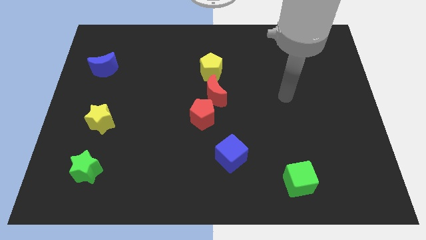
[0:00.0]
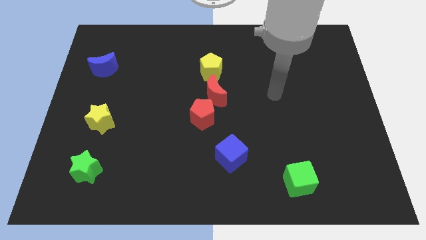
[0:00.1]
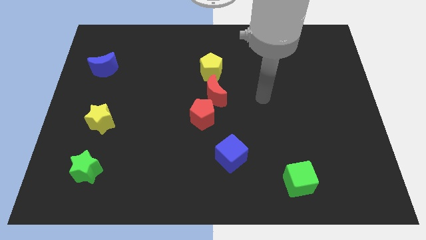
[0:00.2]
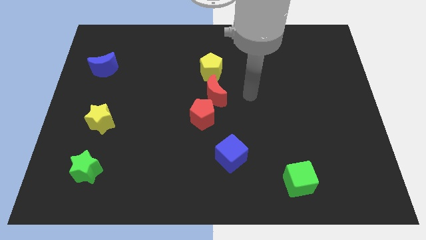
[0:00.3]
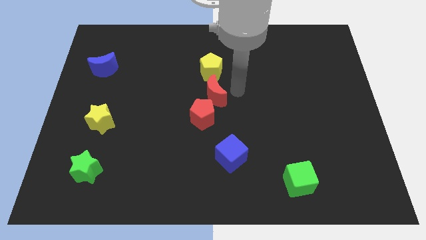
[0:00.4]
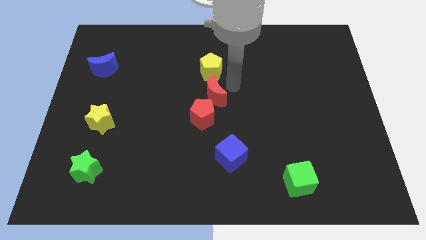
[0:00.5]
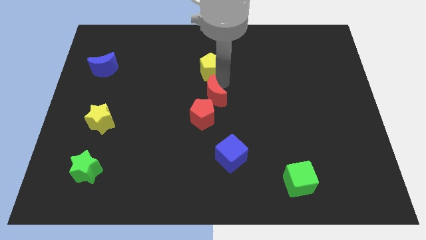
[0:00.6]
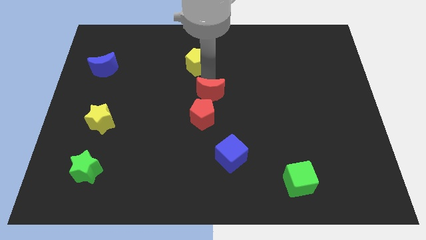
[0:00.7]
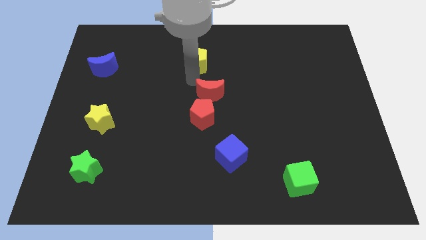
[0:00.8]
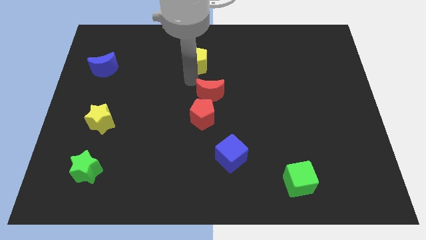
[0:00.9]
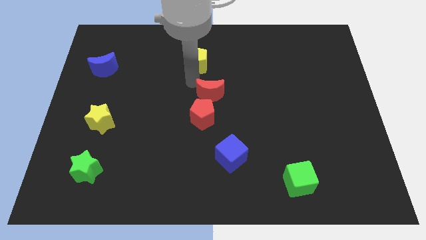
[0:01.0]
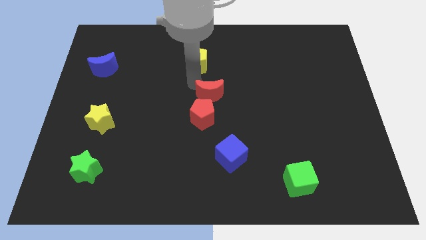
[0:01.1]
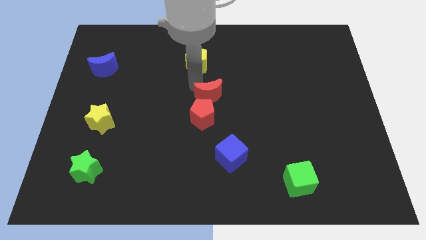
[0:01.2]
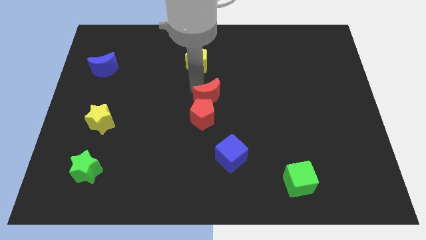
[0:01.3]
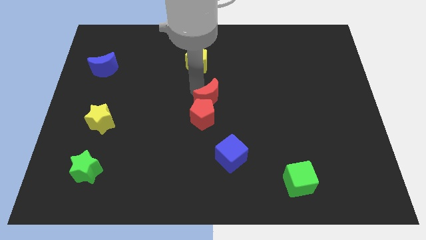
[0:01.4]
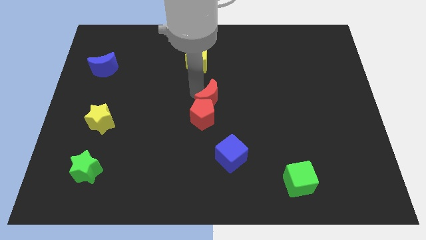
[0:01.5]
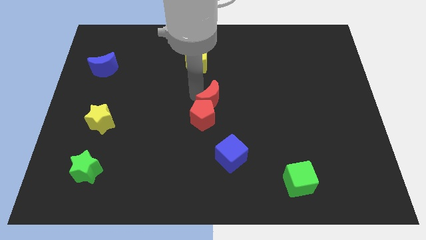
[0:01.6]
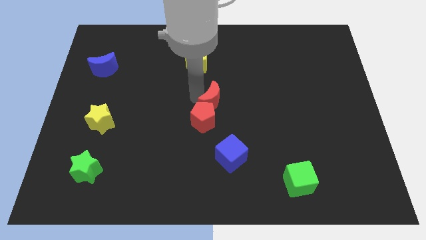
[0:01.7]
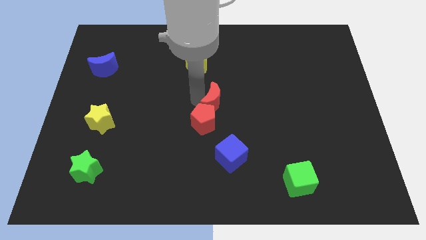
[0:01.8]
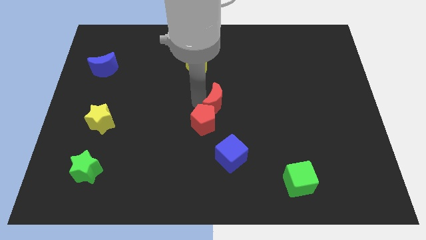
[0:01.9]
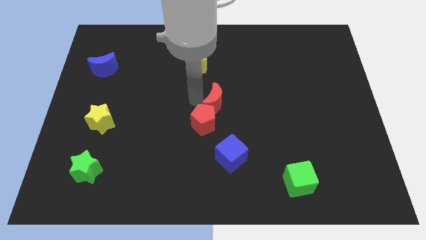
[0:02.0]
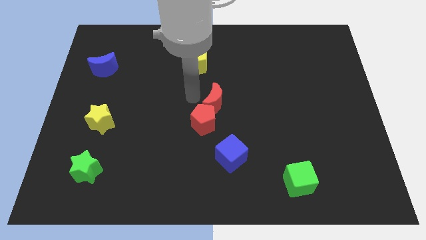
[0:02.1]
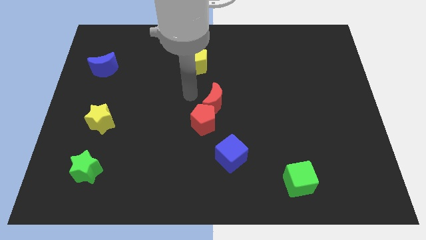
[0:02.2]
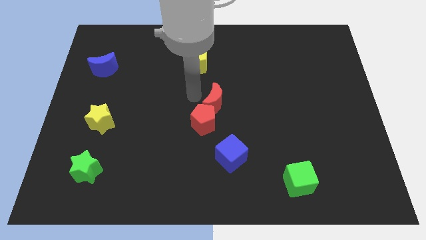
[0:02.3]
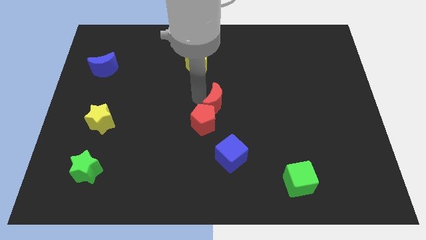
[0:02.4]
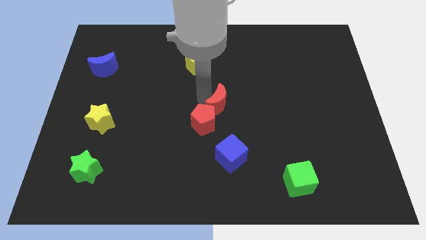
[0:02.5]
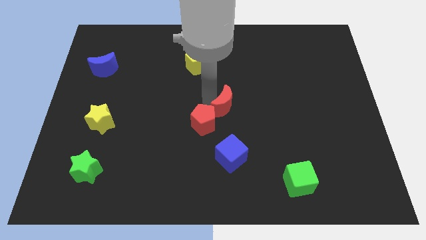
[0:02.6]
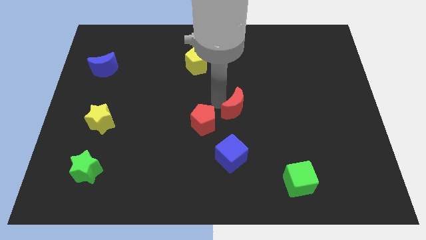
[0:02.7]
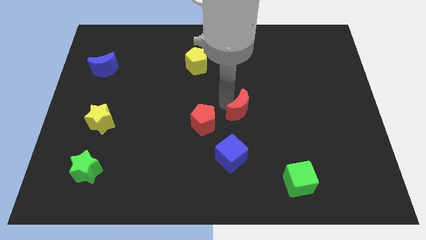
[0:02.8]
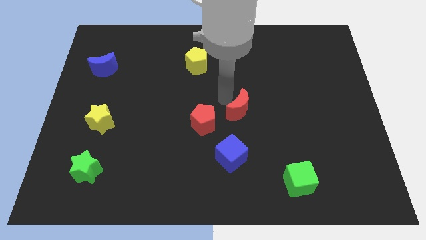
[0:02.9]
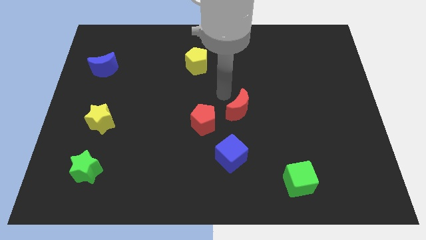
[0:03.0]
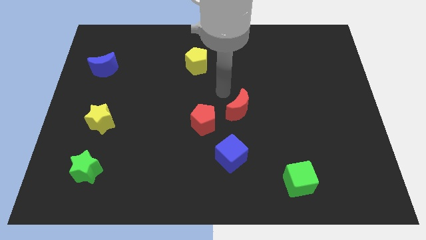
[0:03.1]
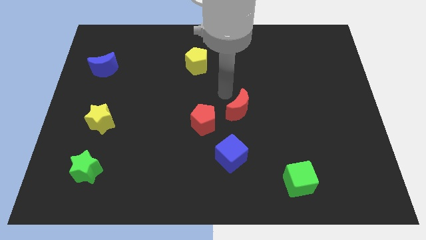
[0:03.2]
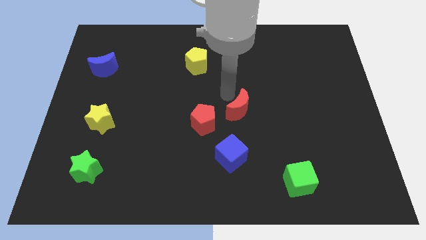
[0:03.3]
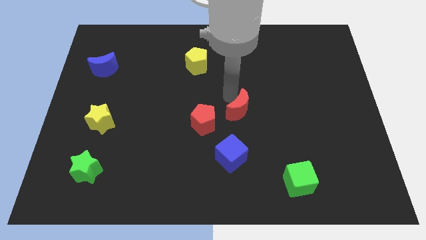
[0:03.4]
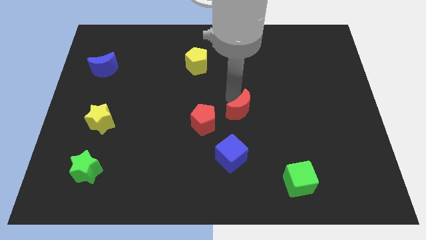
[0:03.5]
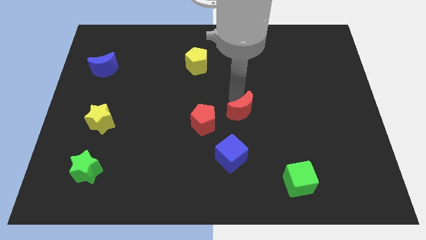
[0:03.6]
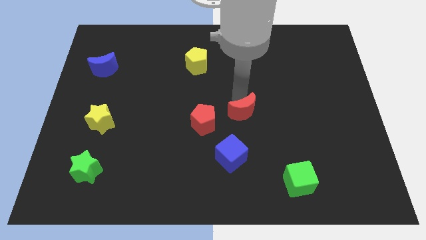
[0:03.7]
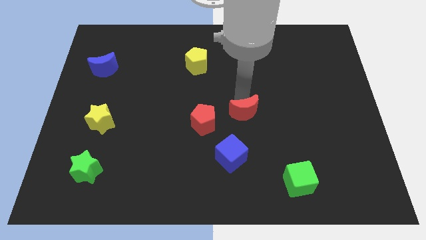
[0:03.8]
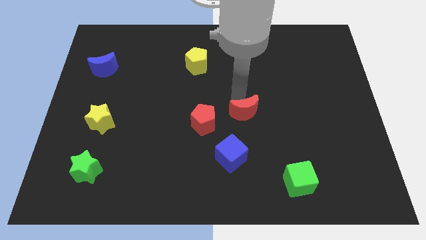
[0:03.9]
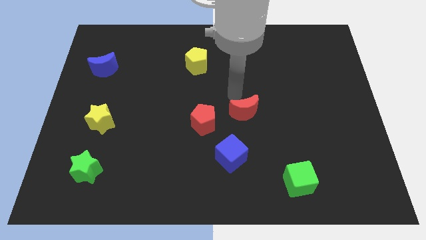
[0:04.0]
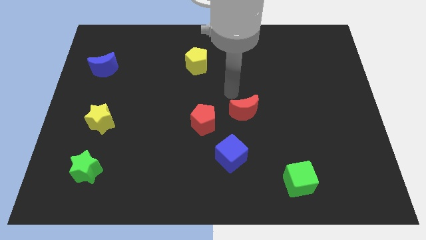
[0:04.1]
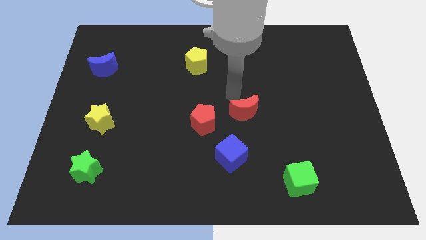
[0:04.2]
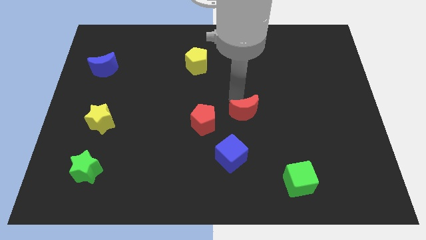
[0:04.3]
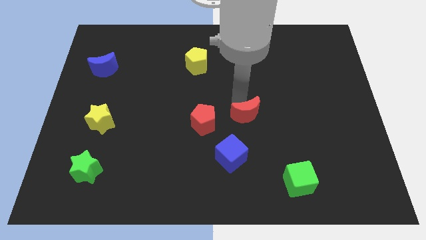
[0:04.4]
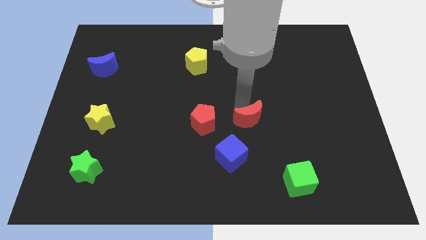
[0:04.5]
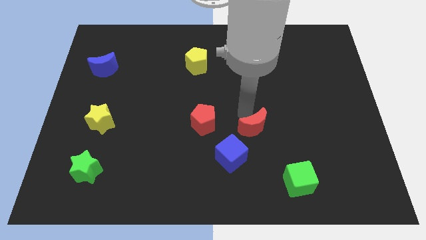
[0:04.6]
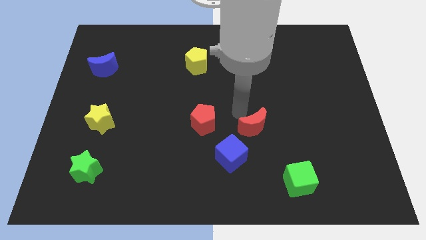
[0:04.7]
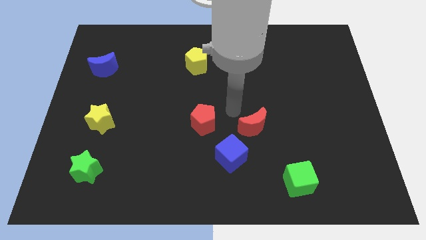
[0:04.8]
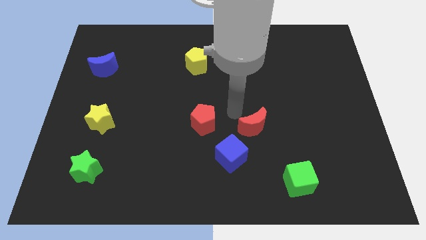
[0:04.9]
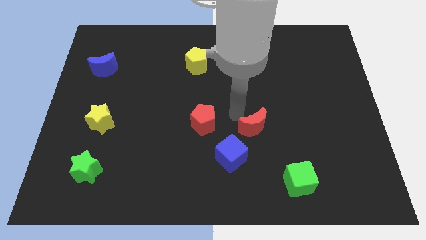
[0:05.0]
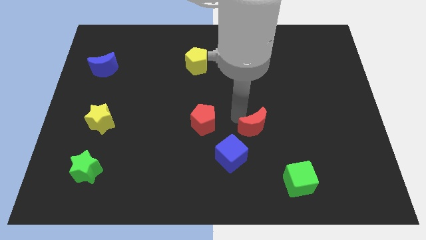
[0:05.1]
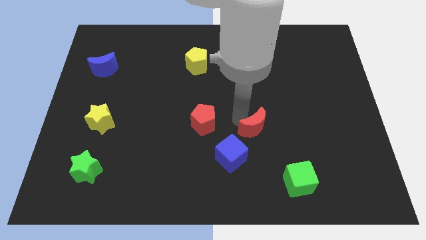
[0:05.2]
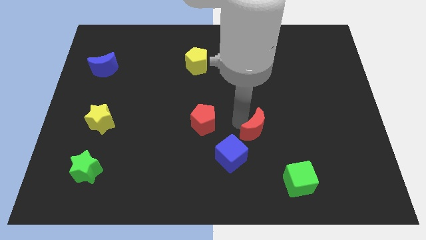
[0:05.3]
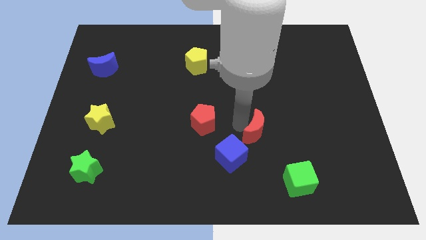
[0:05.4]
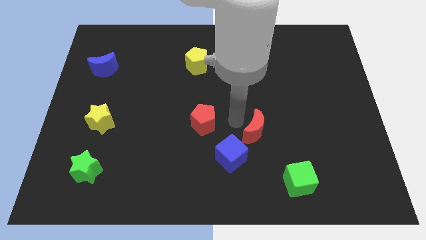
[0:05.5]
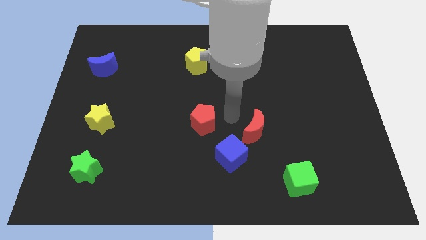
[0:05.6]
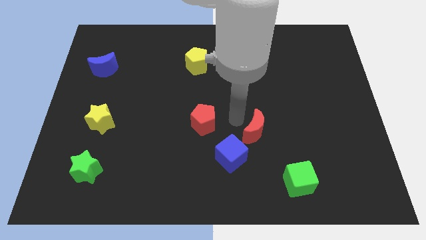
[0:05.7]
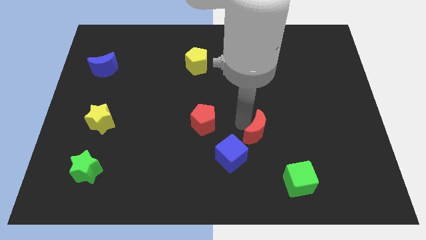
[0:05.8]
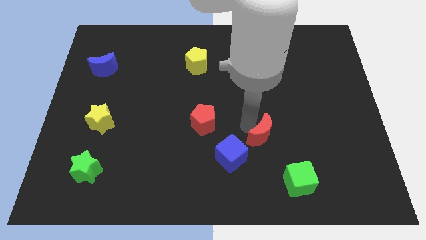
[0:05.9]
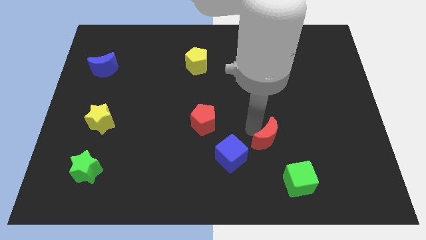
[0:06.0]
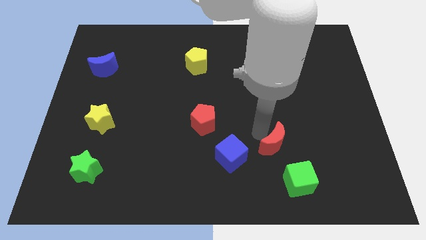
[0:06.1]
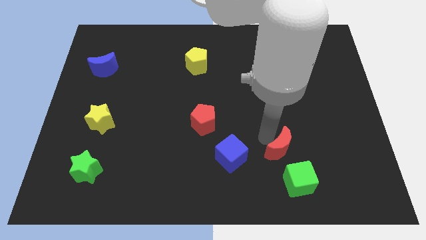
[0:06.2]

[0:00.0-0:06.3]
push the red moon downwards and then to the right

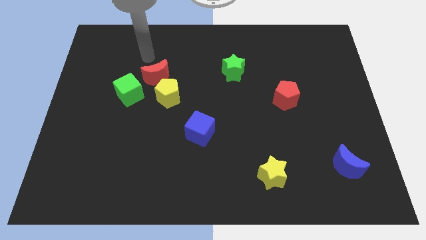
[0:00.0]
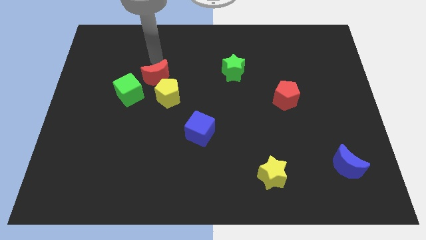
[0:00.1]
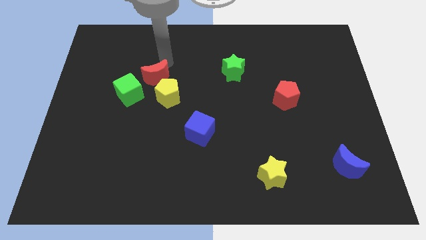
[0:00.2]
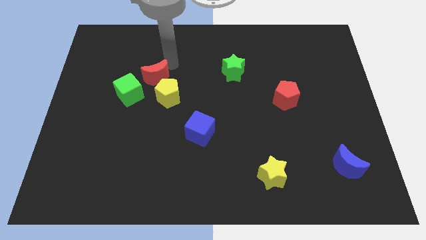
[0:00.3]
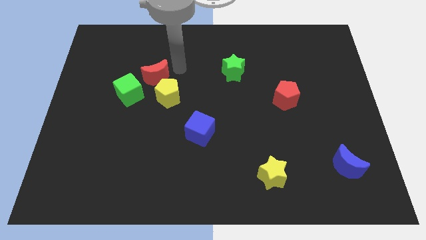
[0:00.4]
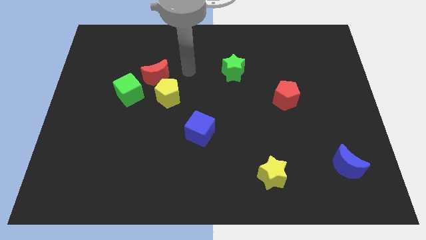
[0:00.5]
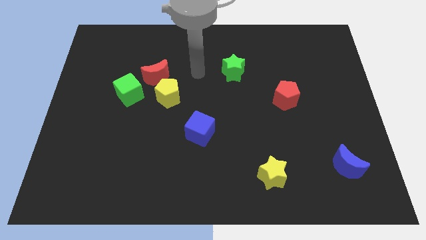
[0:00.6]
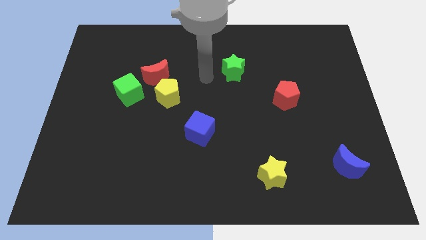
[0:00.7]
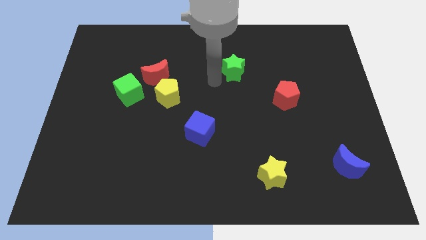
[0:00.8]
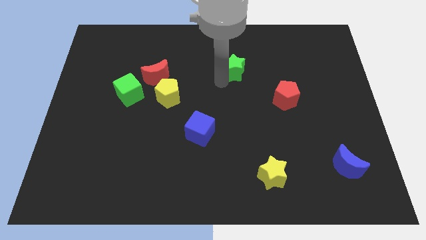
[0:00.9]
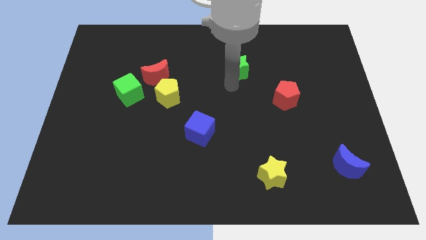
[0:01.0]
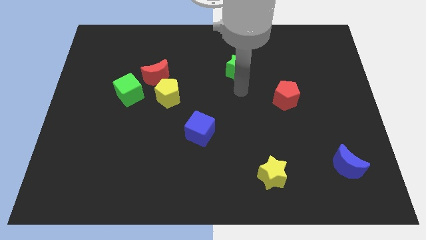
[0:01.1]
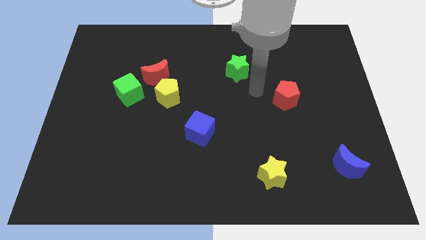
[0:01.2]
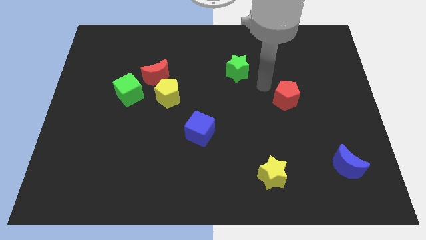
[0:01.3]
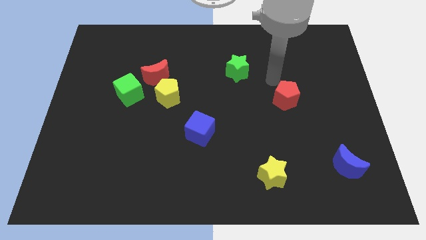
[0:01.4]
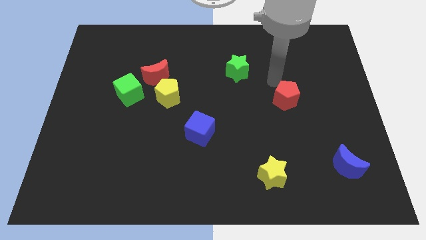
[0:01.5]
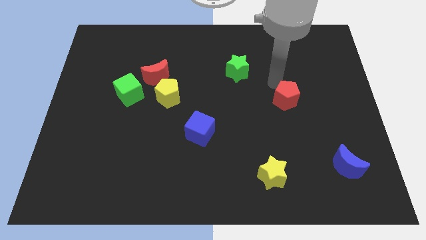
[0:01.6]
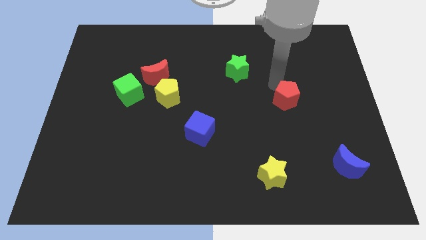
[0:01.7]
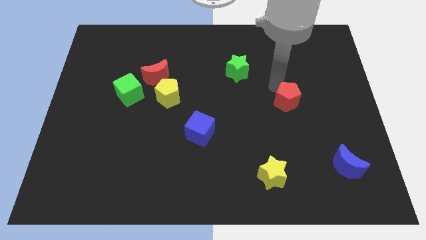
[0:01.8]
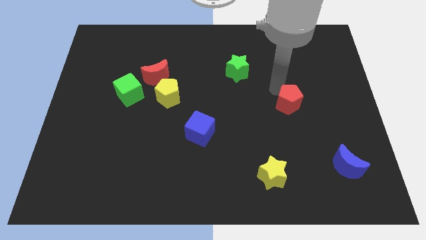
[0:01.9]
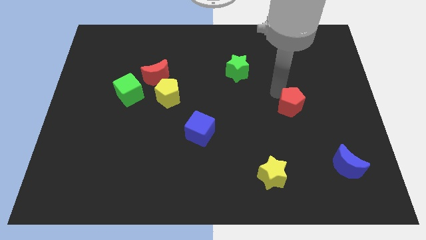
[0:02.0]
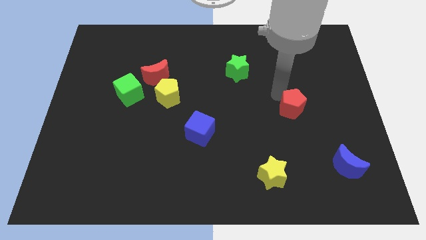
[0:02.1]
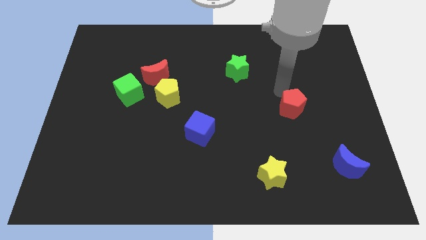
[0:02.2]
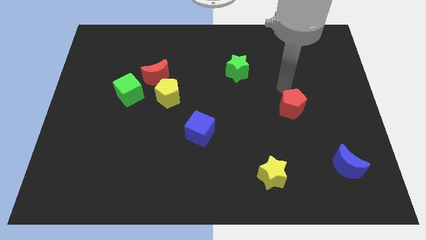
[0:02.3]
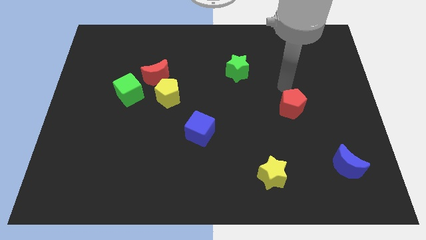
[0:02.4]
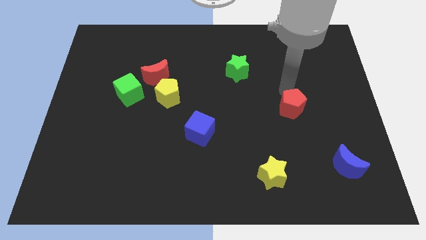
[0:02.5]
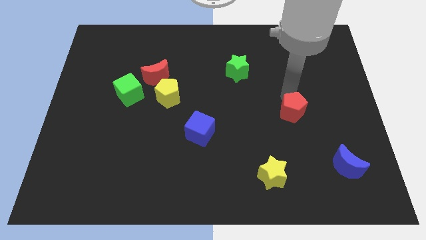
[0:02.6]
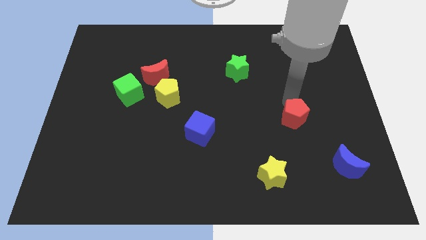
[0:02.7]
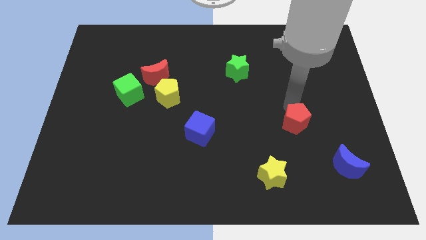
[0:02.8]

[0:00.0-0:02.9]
slightly push the red pentagon downwards
